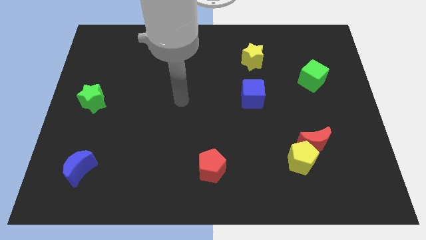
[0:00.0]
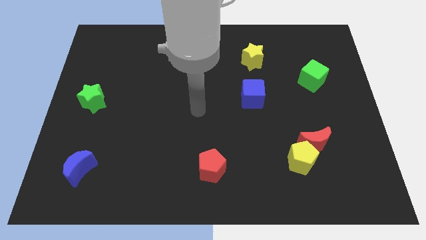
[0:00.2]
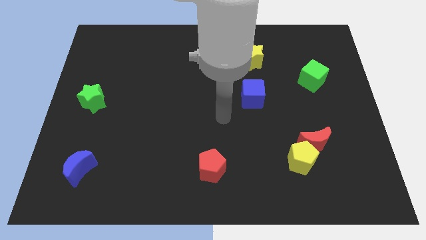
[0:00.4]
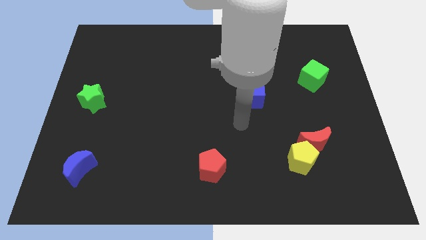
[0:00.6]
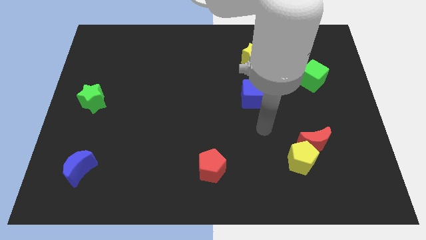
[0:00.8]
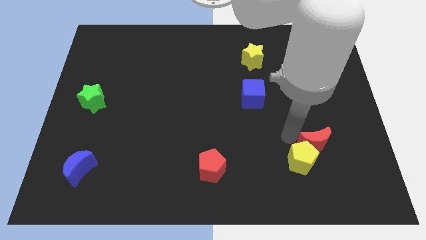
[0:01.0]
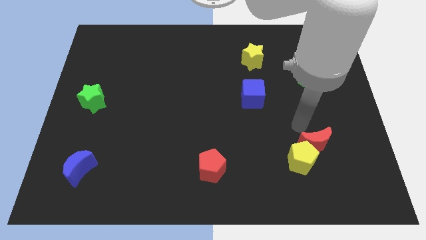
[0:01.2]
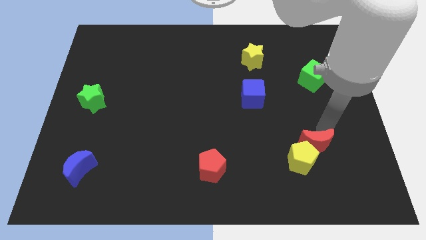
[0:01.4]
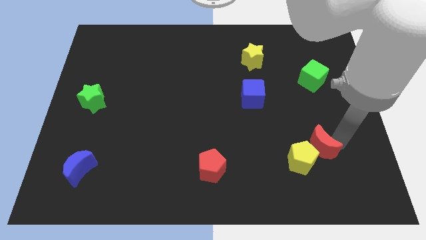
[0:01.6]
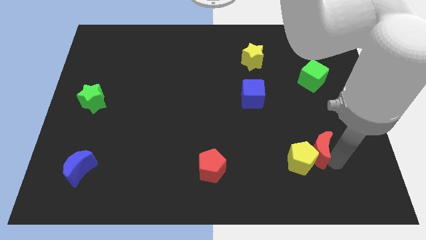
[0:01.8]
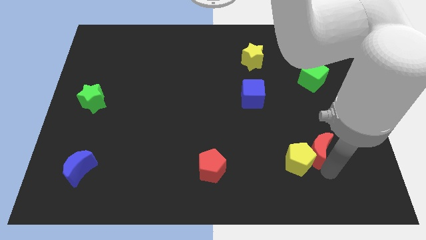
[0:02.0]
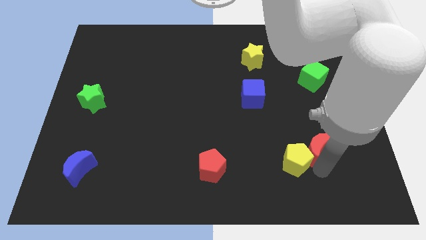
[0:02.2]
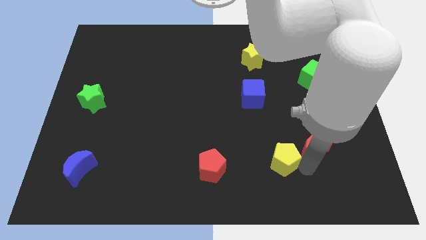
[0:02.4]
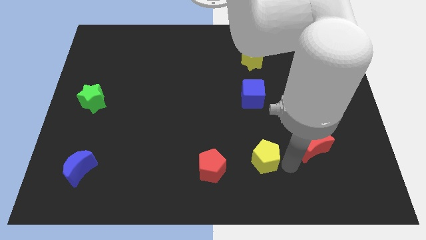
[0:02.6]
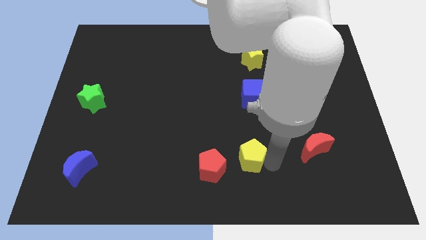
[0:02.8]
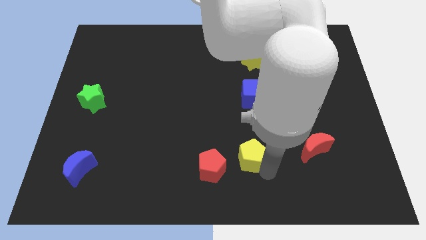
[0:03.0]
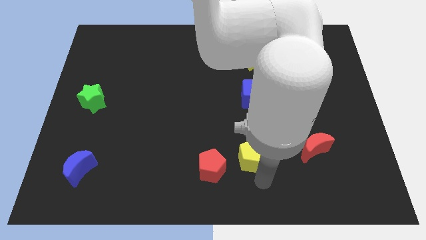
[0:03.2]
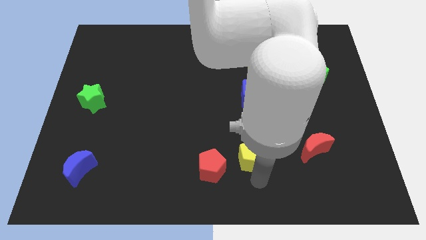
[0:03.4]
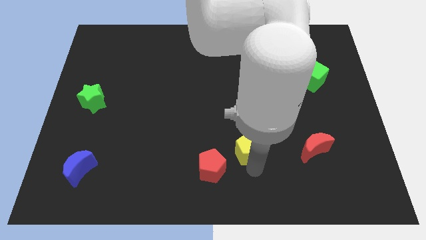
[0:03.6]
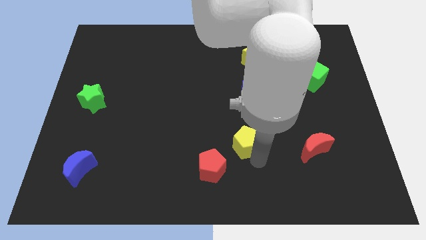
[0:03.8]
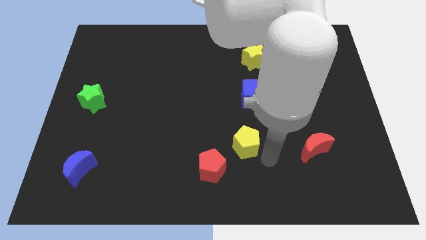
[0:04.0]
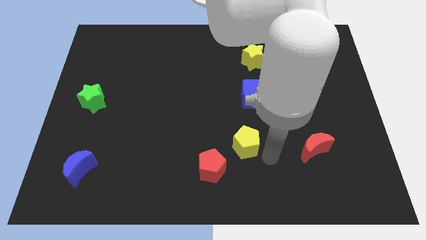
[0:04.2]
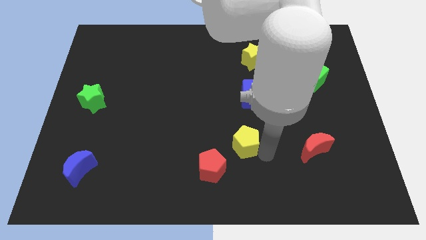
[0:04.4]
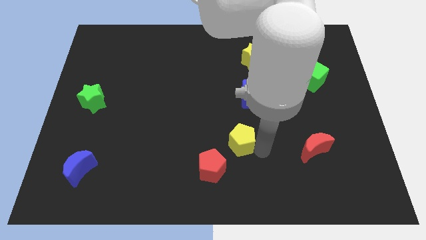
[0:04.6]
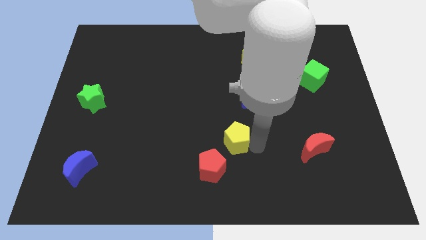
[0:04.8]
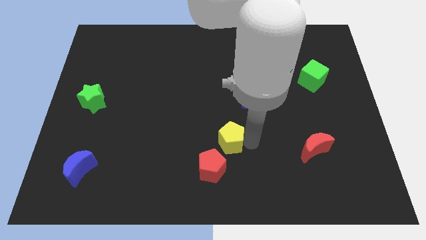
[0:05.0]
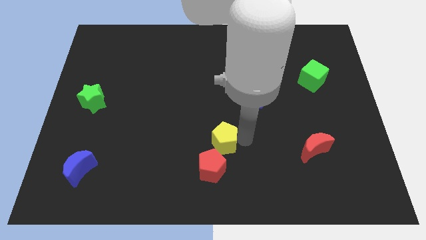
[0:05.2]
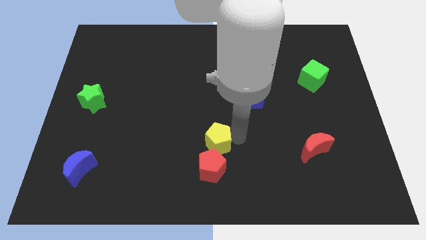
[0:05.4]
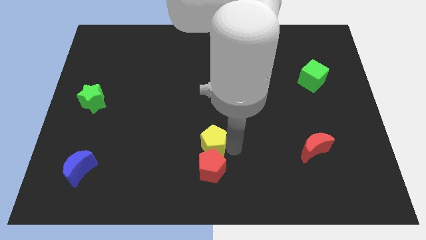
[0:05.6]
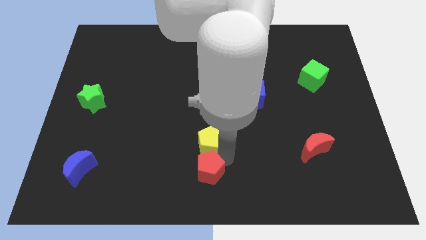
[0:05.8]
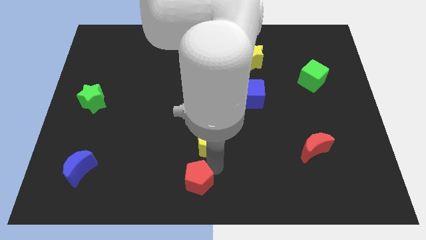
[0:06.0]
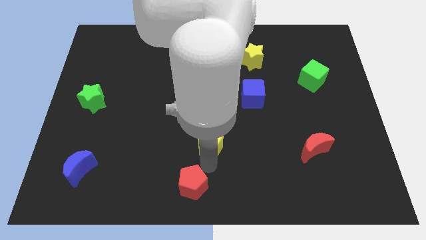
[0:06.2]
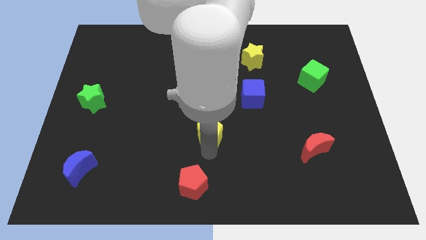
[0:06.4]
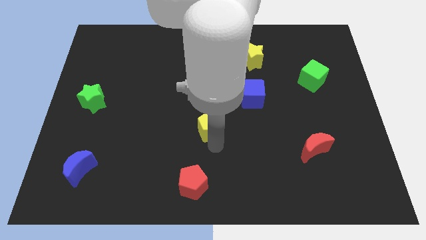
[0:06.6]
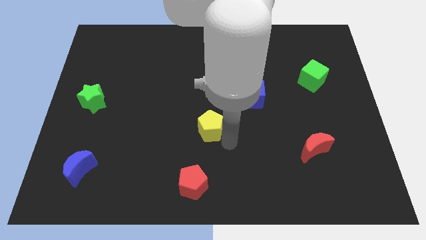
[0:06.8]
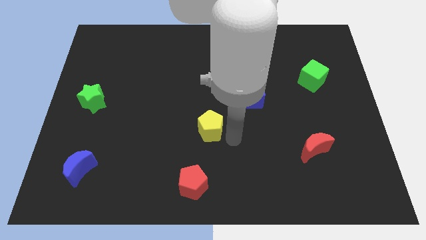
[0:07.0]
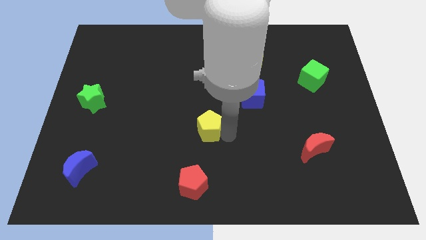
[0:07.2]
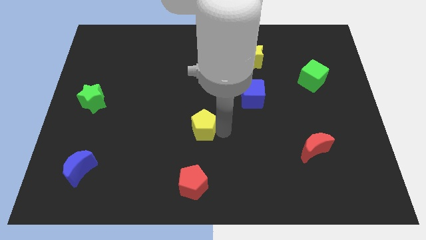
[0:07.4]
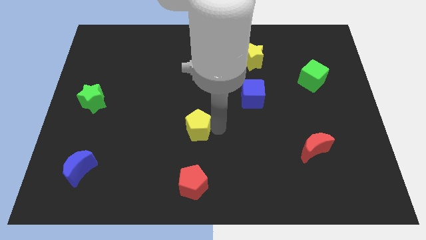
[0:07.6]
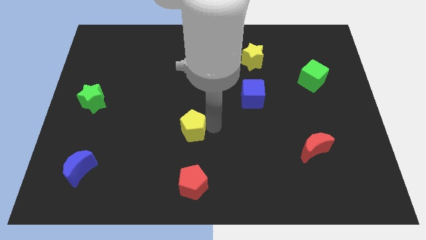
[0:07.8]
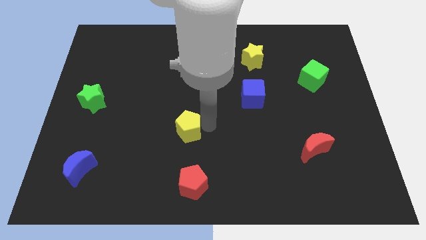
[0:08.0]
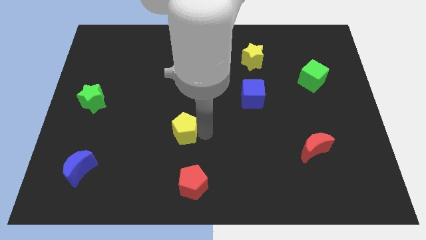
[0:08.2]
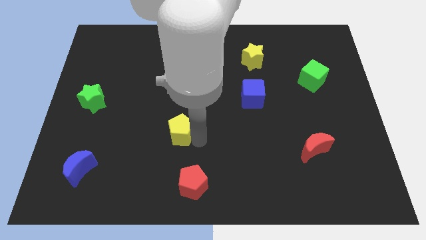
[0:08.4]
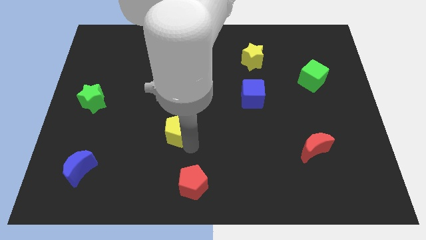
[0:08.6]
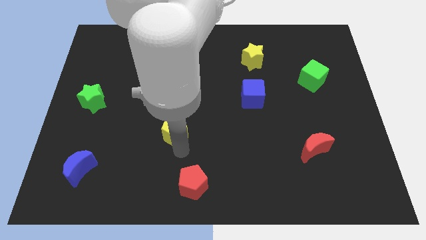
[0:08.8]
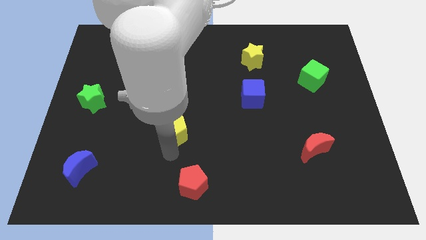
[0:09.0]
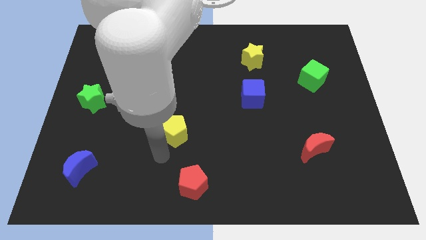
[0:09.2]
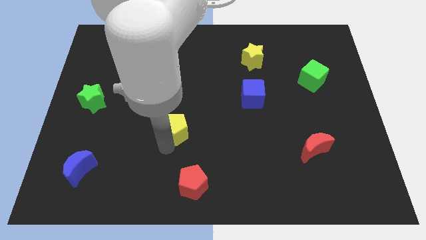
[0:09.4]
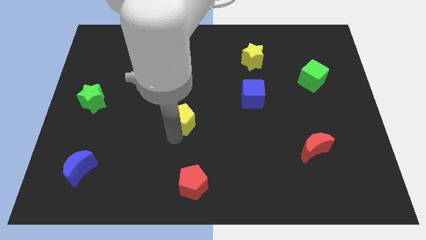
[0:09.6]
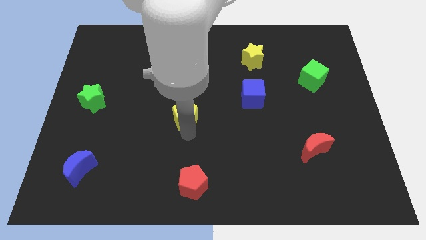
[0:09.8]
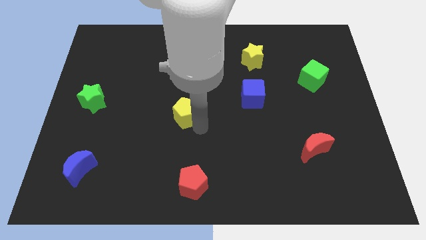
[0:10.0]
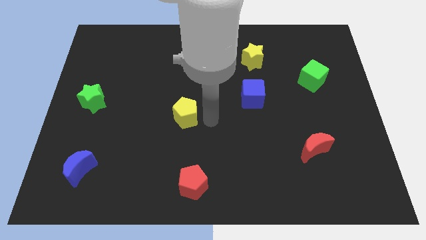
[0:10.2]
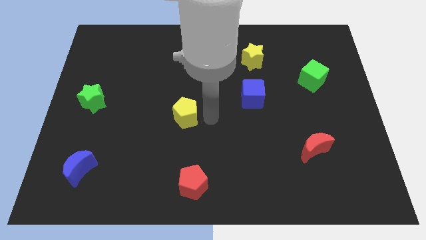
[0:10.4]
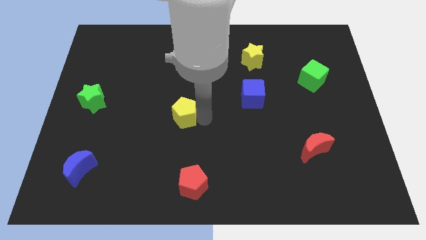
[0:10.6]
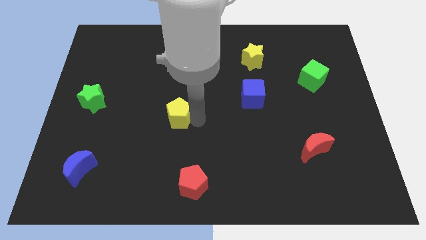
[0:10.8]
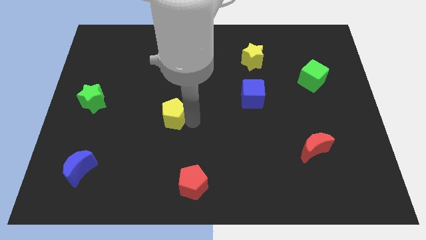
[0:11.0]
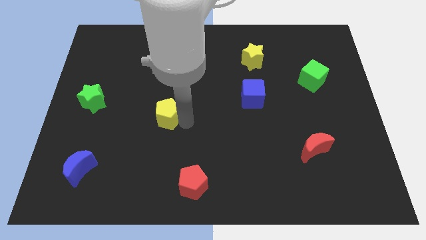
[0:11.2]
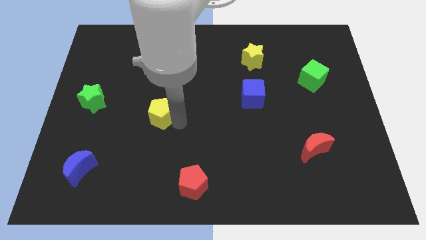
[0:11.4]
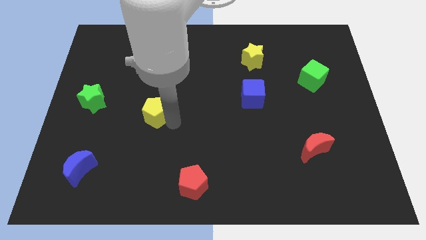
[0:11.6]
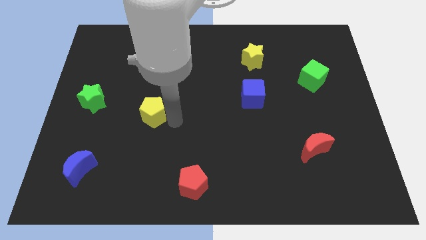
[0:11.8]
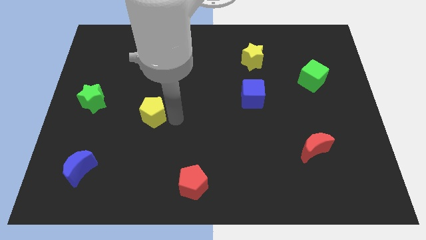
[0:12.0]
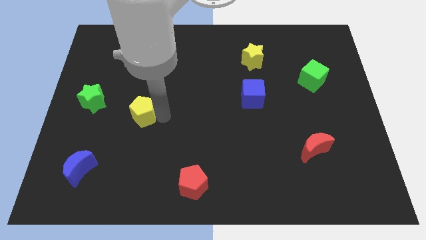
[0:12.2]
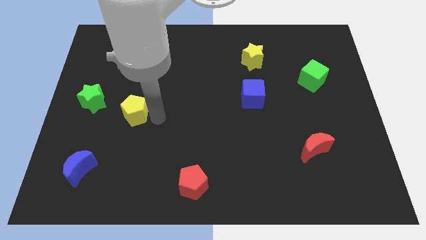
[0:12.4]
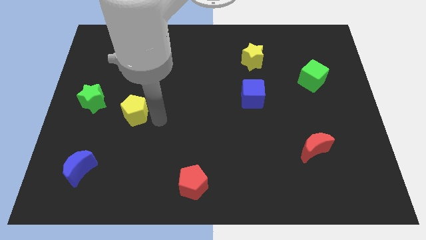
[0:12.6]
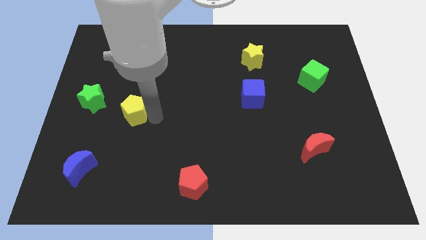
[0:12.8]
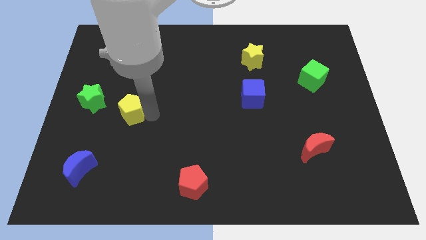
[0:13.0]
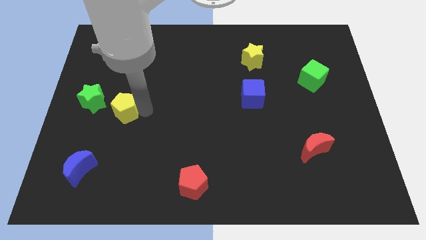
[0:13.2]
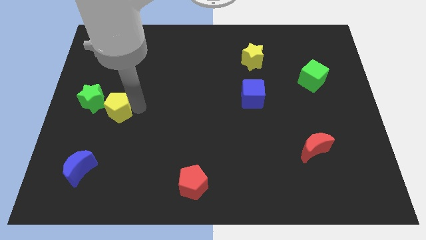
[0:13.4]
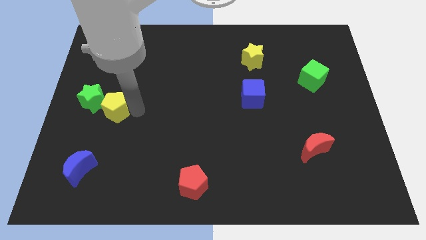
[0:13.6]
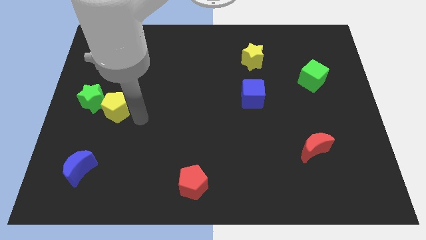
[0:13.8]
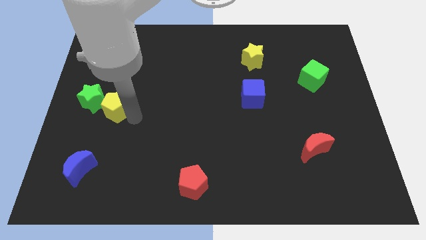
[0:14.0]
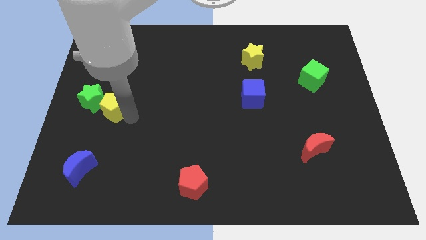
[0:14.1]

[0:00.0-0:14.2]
slide the yellow pentagon to the green star
